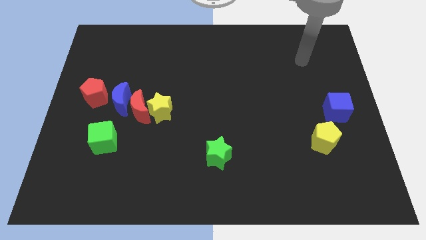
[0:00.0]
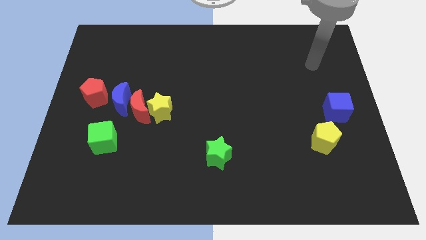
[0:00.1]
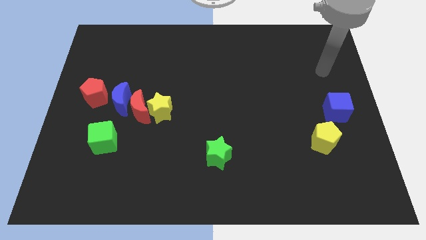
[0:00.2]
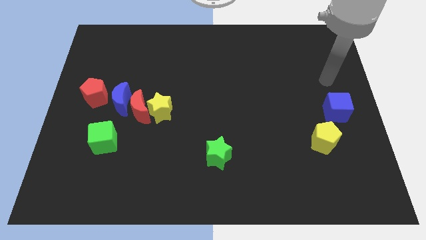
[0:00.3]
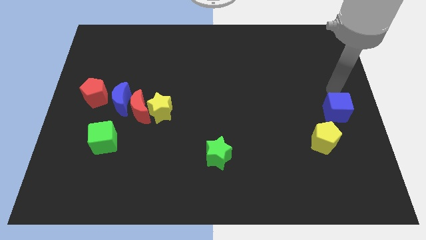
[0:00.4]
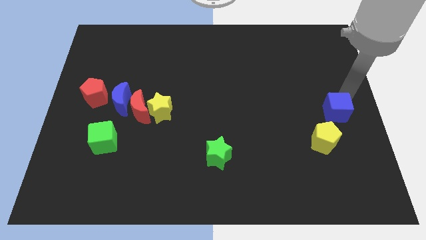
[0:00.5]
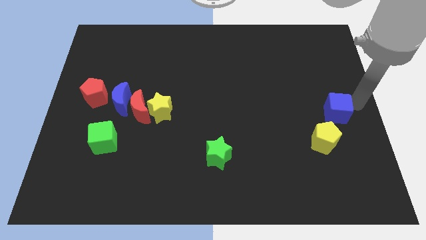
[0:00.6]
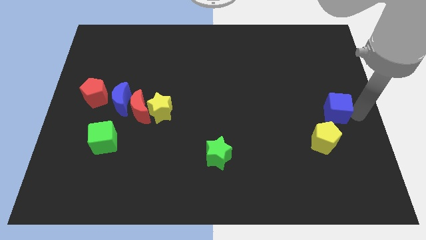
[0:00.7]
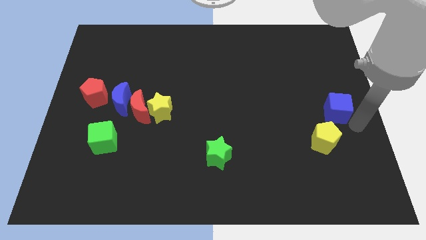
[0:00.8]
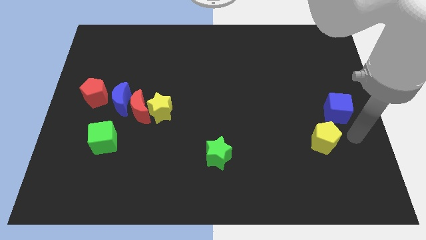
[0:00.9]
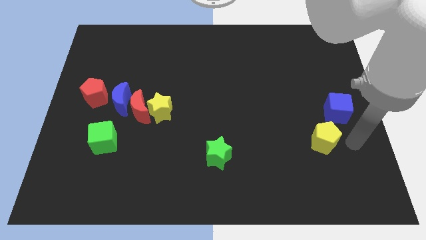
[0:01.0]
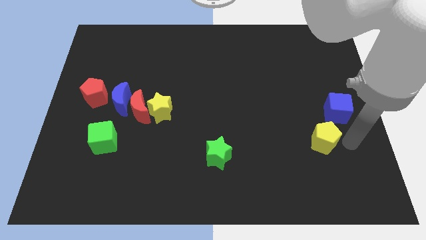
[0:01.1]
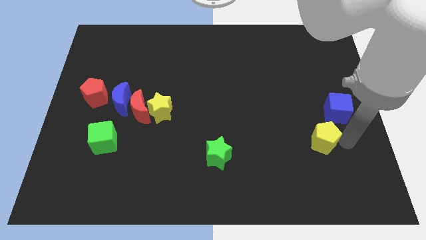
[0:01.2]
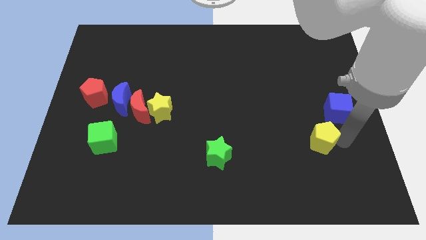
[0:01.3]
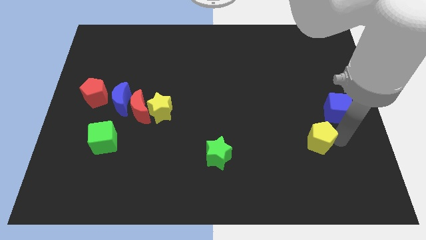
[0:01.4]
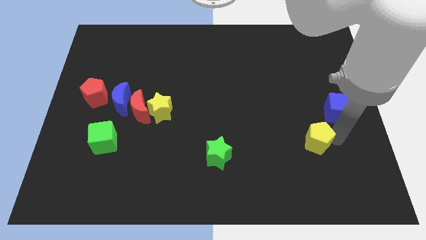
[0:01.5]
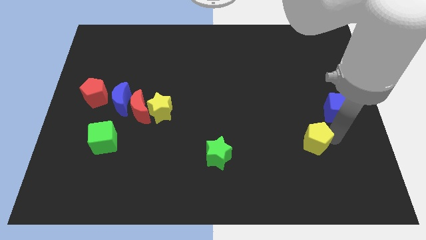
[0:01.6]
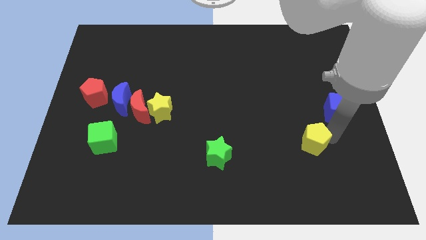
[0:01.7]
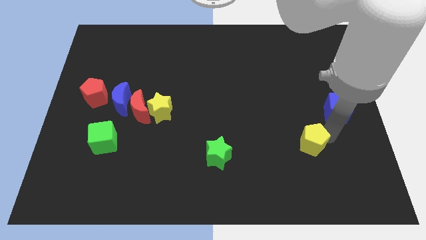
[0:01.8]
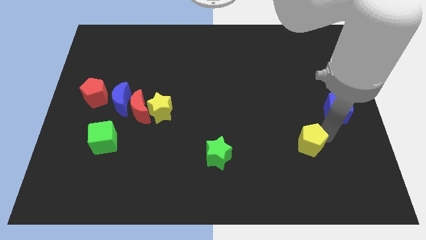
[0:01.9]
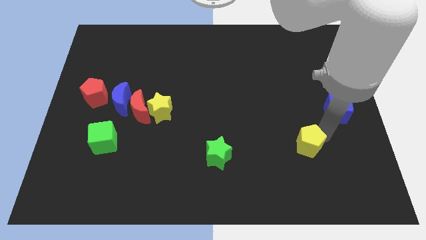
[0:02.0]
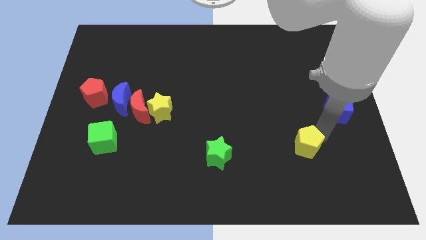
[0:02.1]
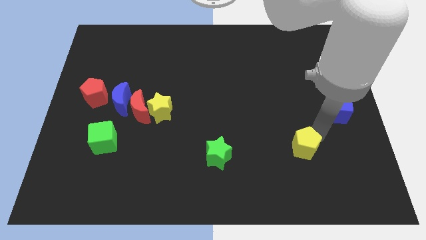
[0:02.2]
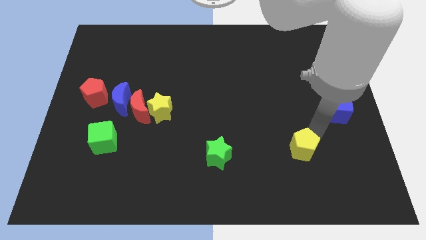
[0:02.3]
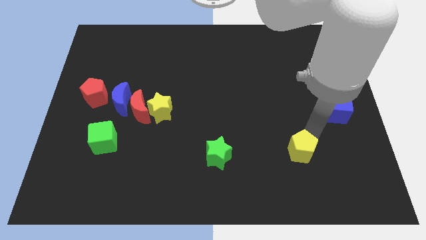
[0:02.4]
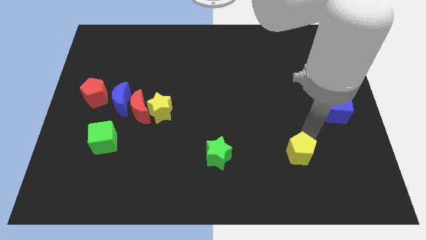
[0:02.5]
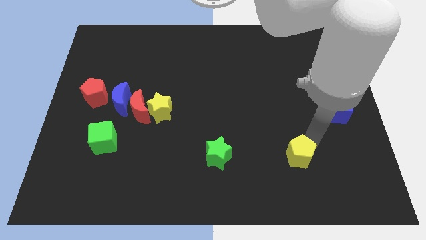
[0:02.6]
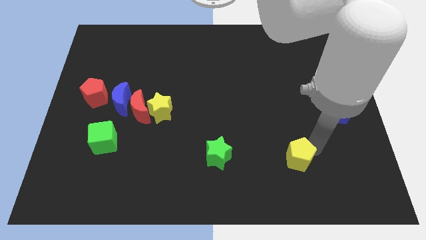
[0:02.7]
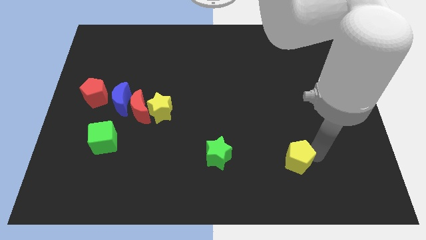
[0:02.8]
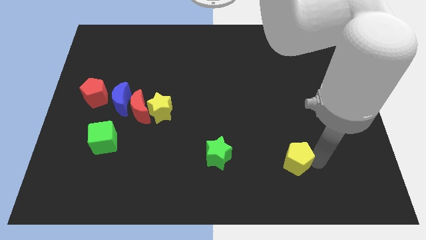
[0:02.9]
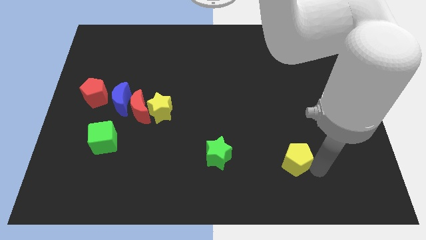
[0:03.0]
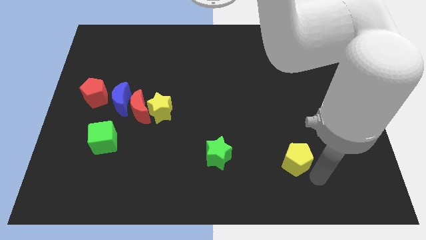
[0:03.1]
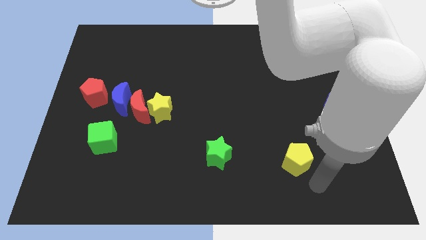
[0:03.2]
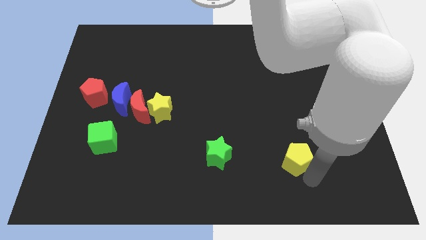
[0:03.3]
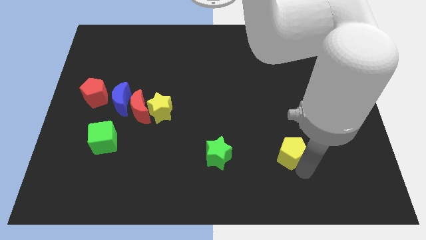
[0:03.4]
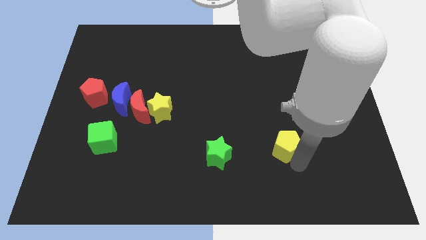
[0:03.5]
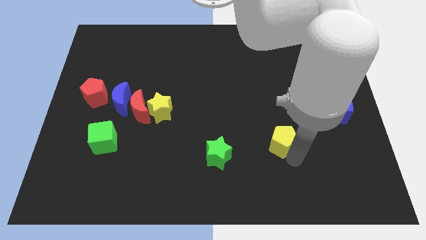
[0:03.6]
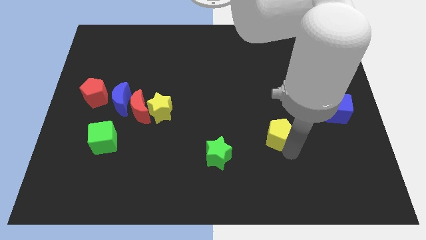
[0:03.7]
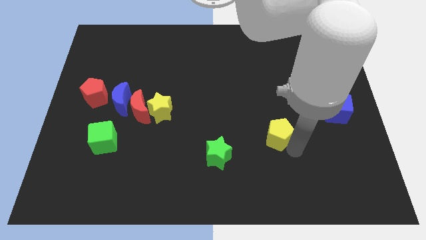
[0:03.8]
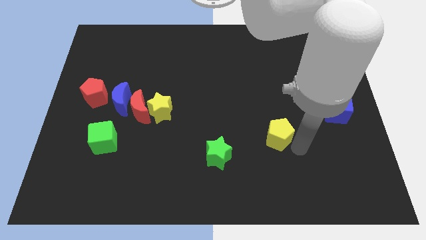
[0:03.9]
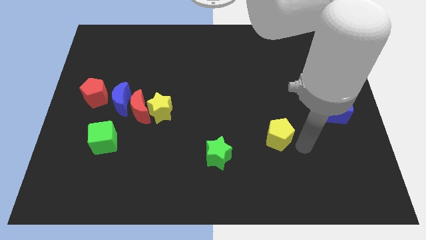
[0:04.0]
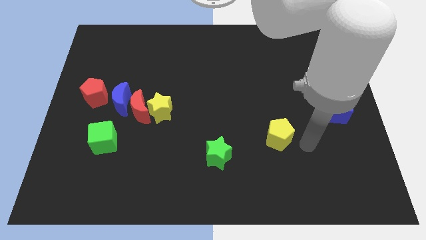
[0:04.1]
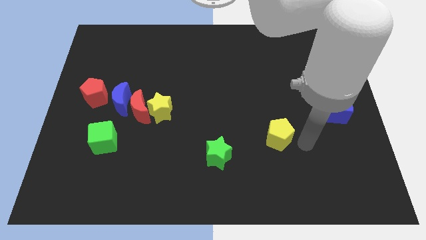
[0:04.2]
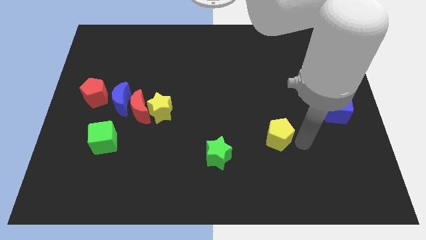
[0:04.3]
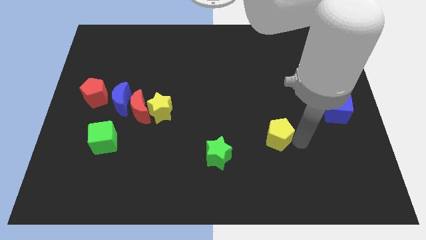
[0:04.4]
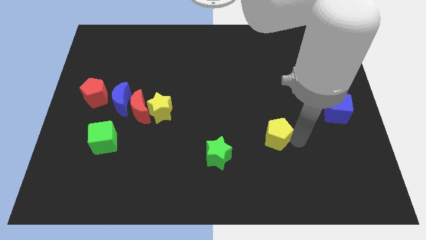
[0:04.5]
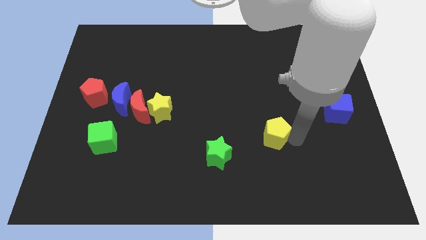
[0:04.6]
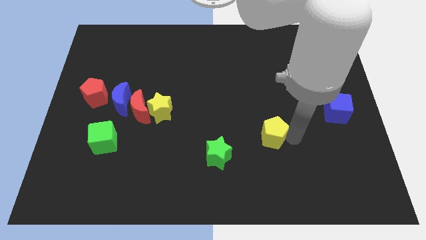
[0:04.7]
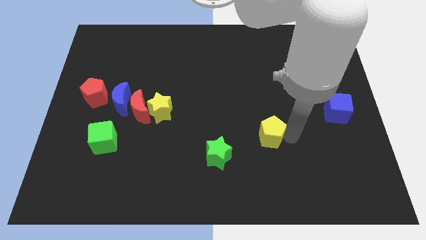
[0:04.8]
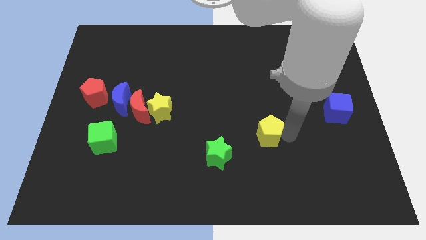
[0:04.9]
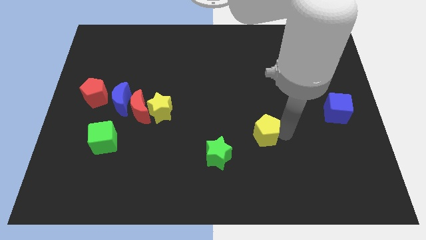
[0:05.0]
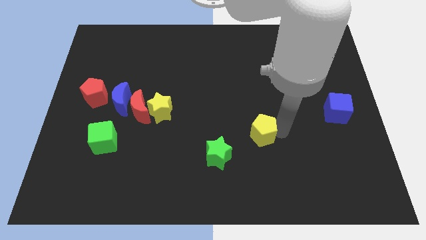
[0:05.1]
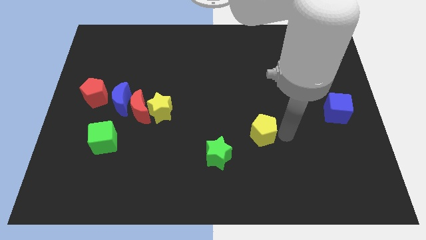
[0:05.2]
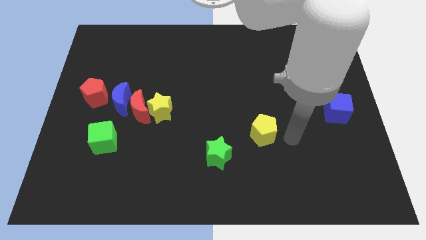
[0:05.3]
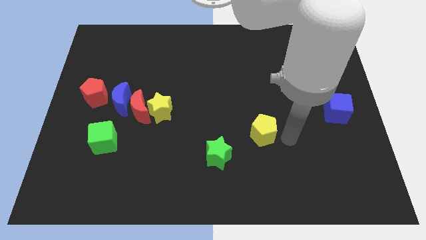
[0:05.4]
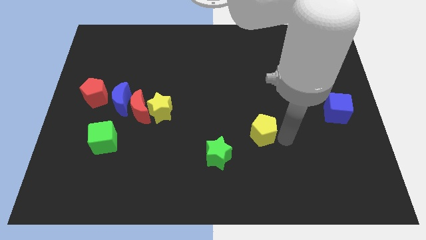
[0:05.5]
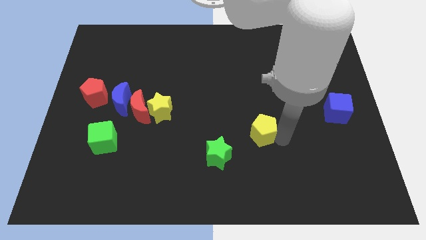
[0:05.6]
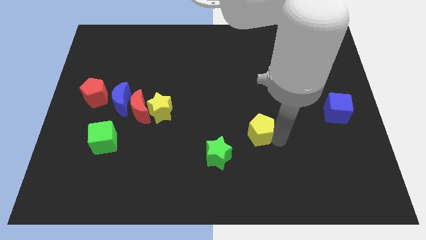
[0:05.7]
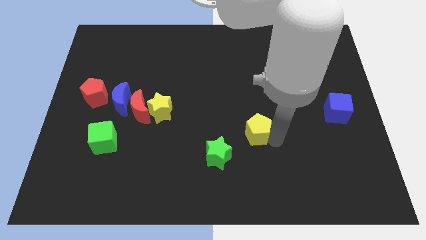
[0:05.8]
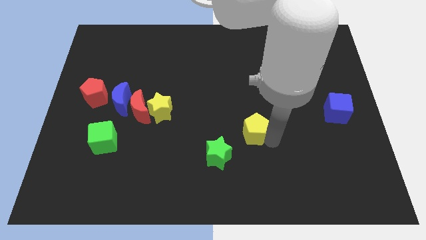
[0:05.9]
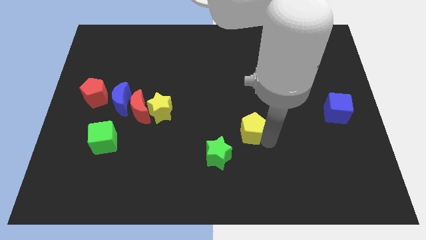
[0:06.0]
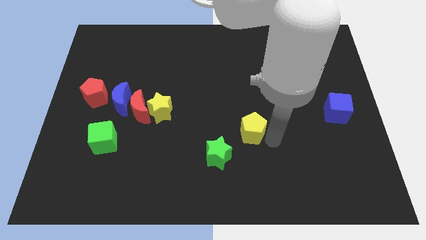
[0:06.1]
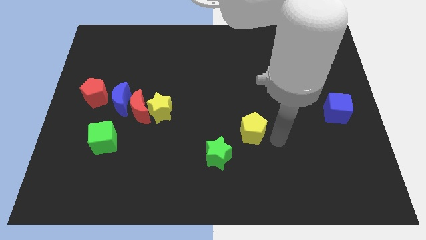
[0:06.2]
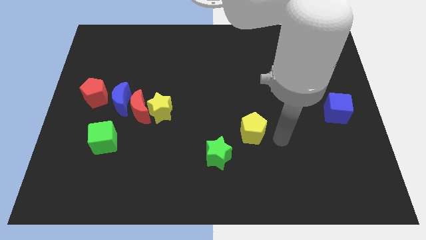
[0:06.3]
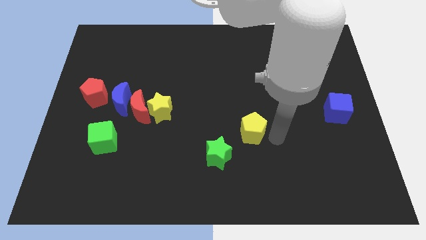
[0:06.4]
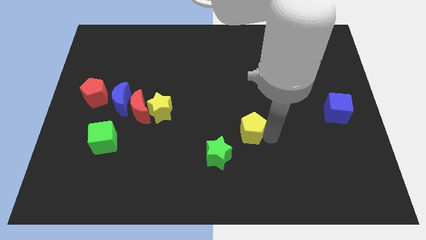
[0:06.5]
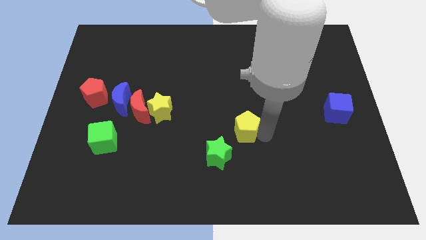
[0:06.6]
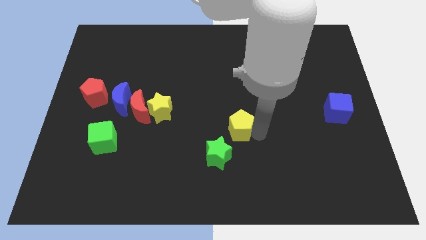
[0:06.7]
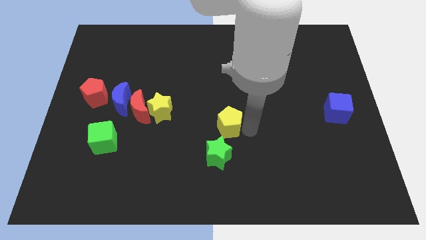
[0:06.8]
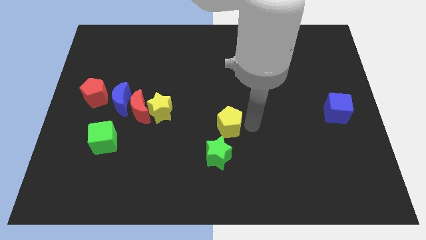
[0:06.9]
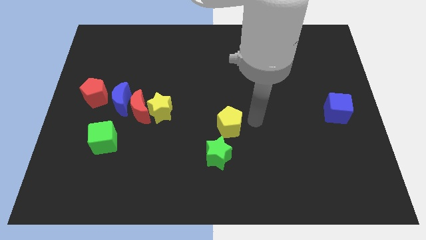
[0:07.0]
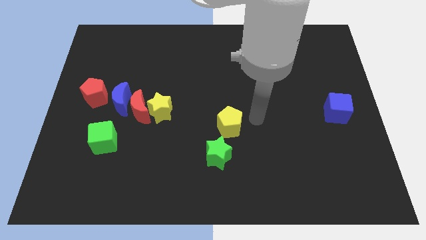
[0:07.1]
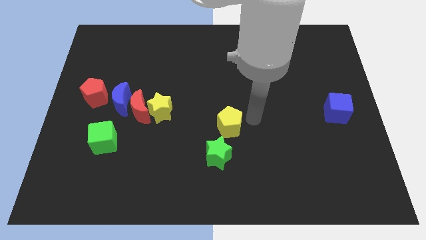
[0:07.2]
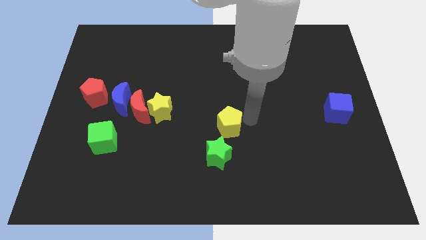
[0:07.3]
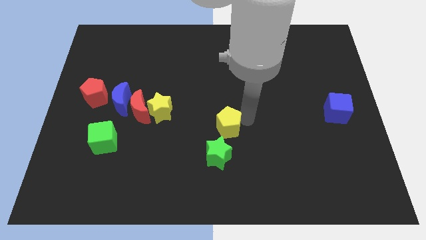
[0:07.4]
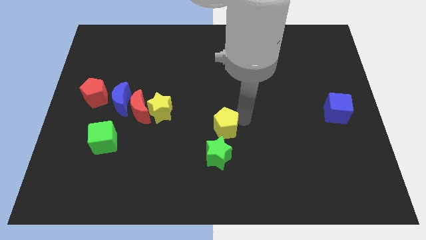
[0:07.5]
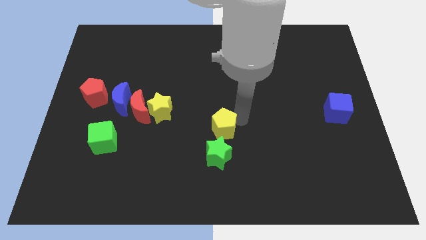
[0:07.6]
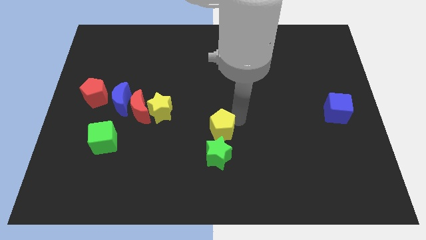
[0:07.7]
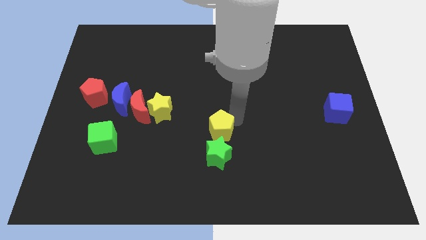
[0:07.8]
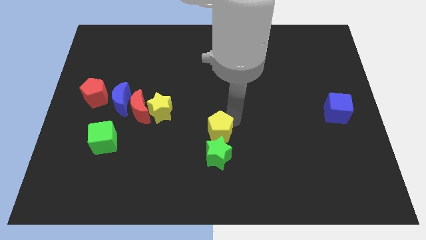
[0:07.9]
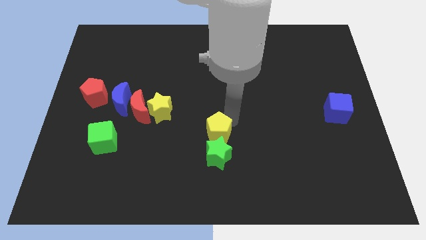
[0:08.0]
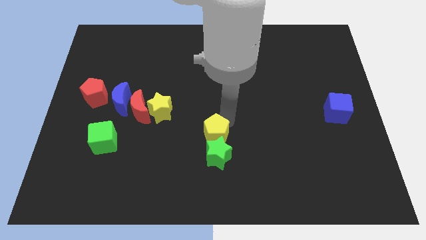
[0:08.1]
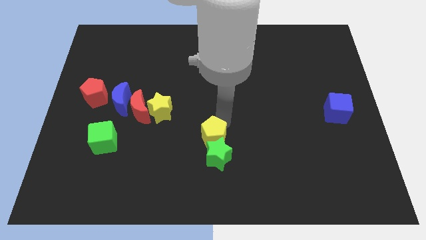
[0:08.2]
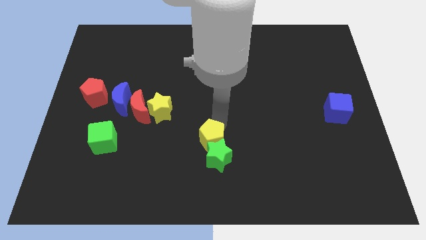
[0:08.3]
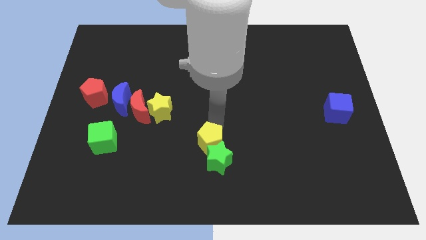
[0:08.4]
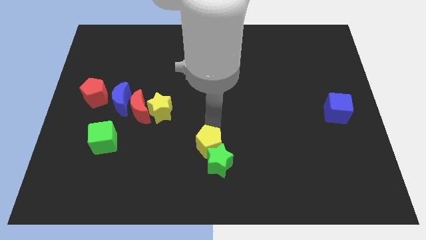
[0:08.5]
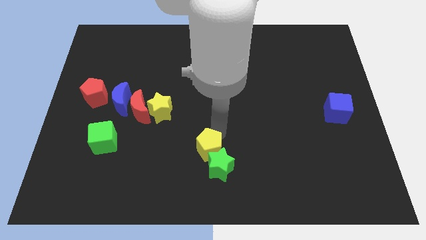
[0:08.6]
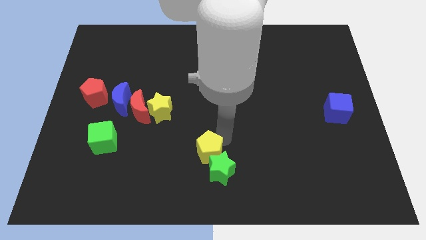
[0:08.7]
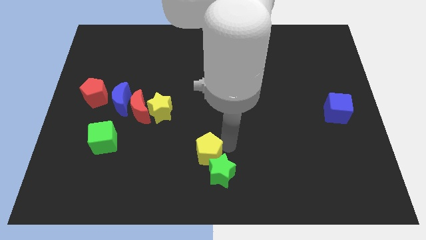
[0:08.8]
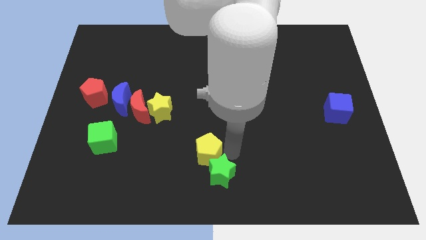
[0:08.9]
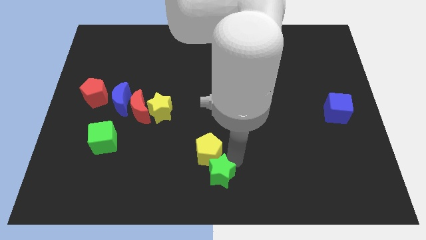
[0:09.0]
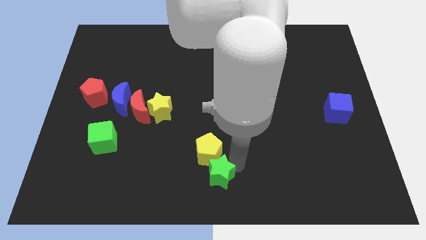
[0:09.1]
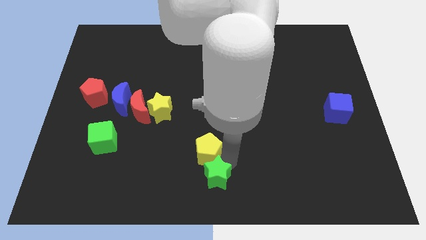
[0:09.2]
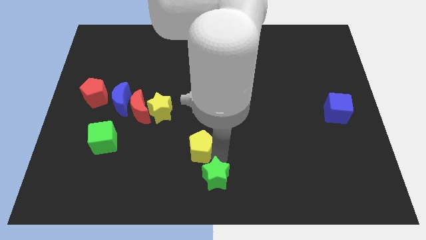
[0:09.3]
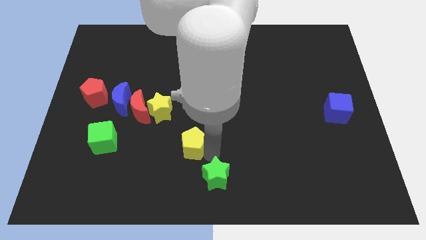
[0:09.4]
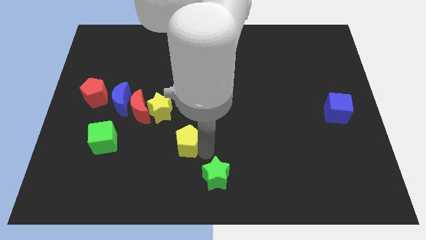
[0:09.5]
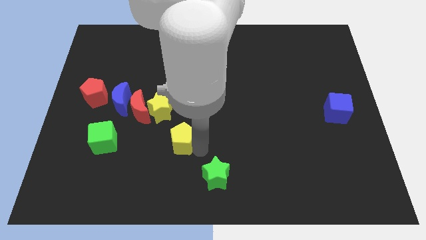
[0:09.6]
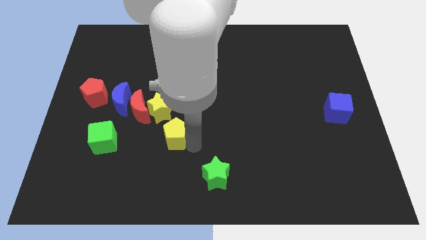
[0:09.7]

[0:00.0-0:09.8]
put the yellow pentagon right of the green cube
